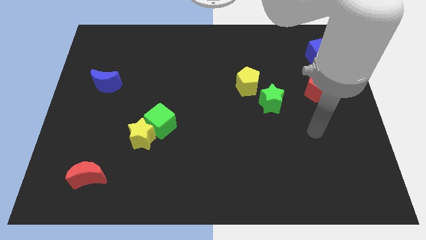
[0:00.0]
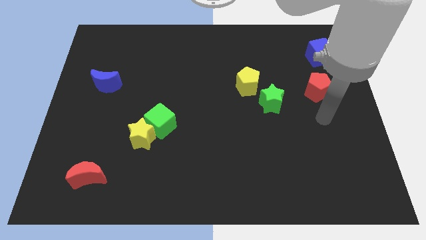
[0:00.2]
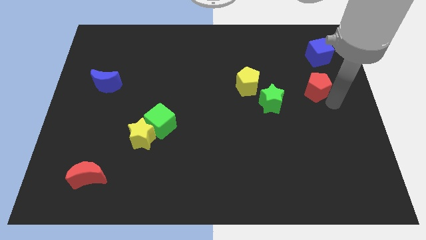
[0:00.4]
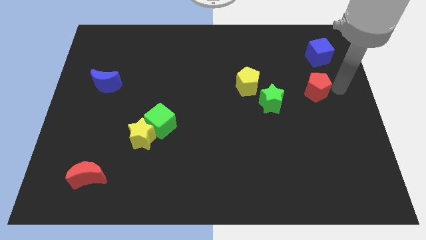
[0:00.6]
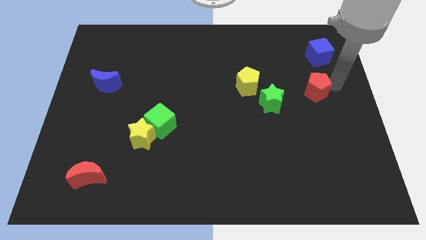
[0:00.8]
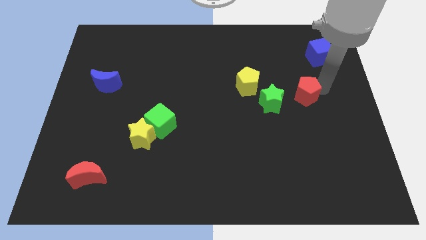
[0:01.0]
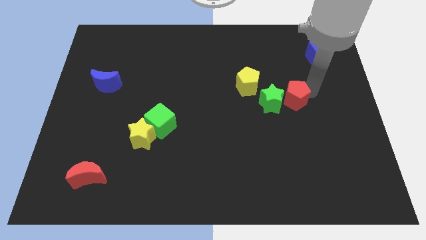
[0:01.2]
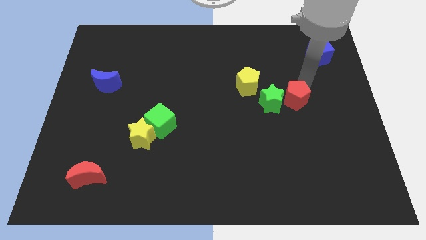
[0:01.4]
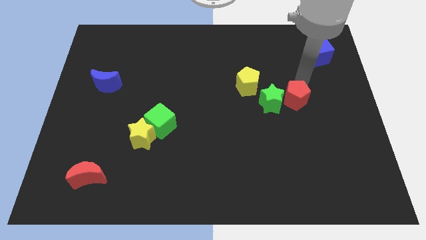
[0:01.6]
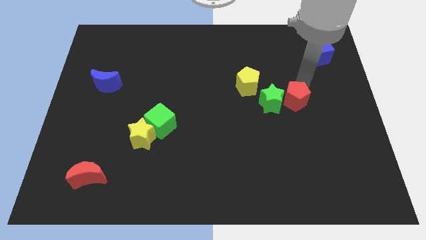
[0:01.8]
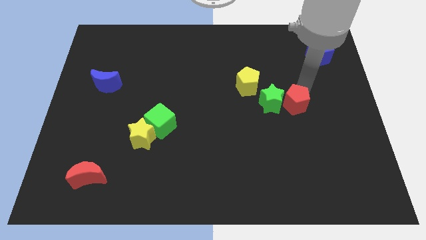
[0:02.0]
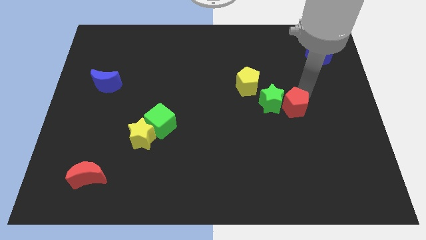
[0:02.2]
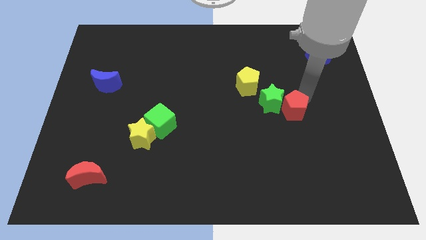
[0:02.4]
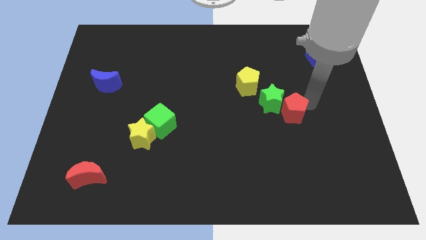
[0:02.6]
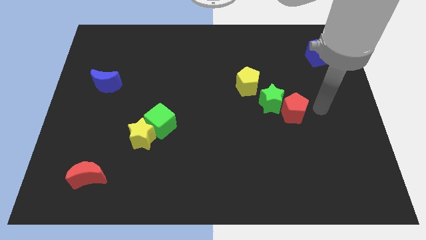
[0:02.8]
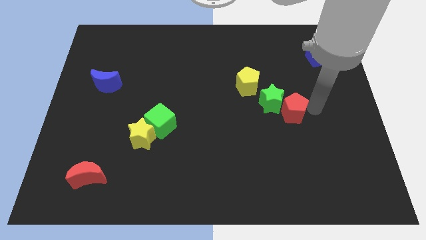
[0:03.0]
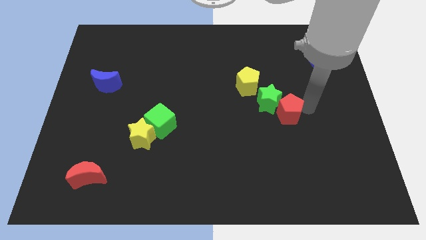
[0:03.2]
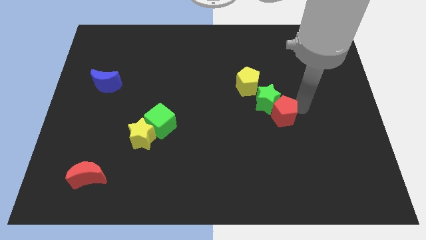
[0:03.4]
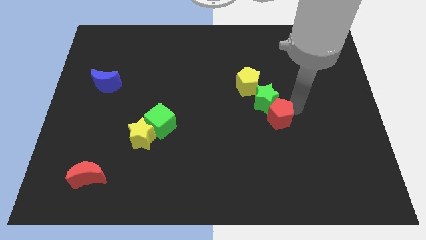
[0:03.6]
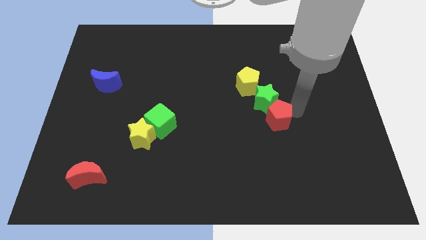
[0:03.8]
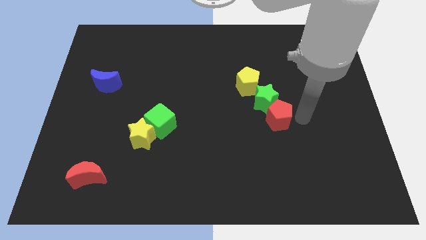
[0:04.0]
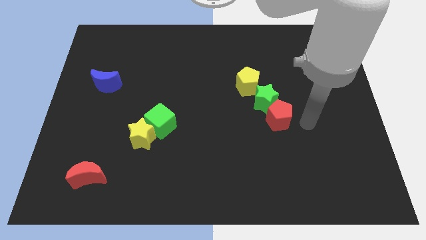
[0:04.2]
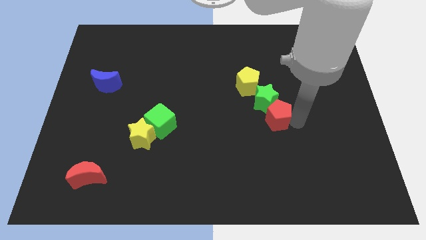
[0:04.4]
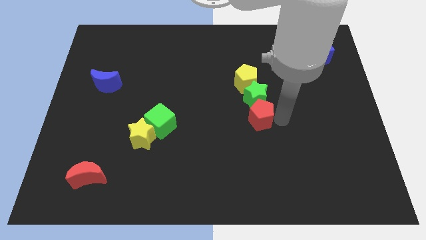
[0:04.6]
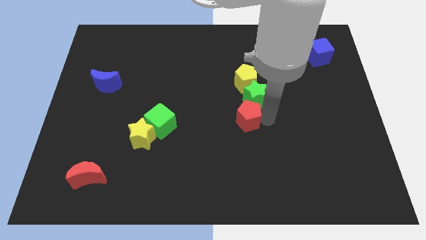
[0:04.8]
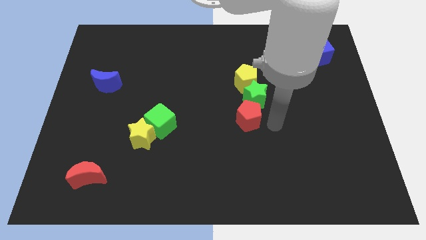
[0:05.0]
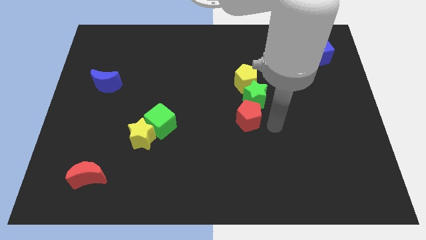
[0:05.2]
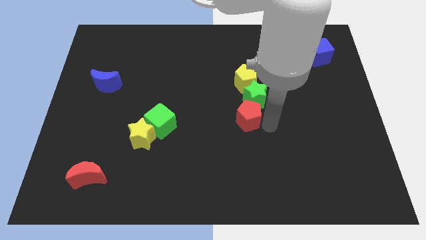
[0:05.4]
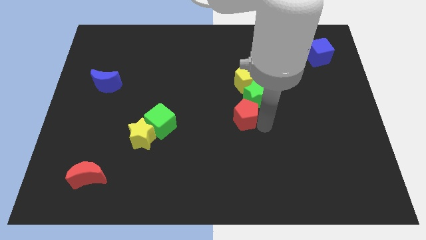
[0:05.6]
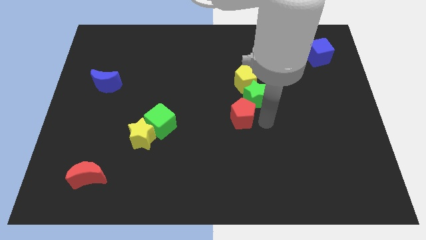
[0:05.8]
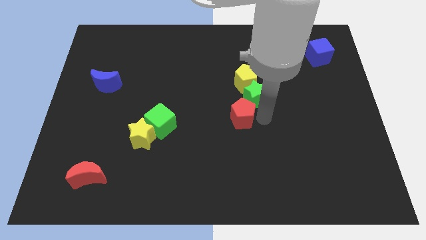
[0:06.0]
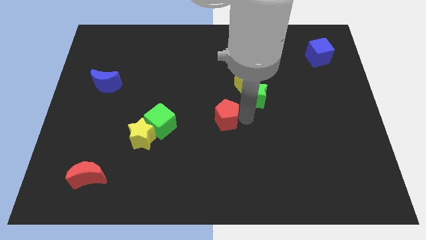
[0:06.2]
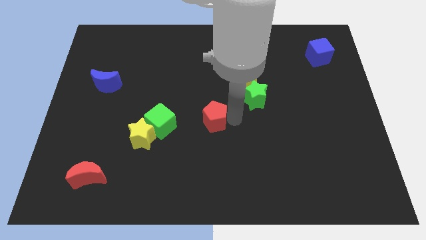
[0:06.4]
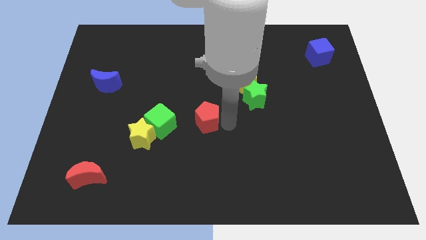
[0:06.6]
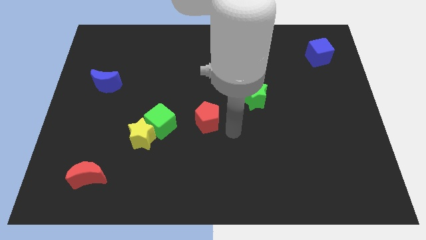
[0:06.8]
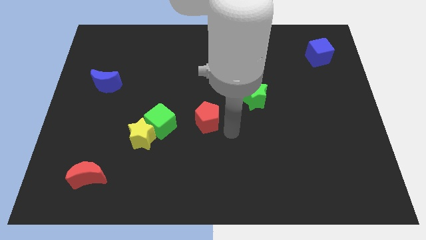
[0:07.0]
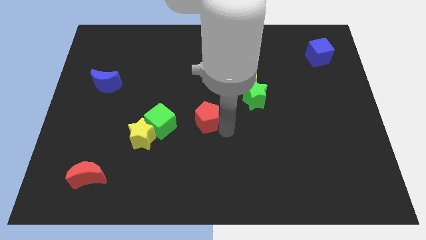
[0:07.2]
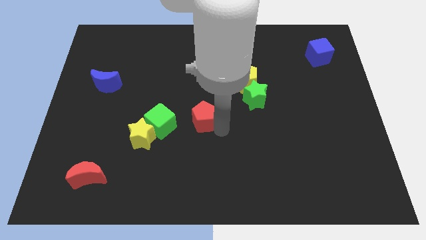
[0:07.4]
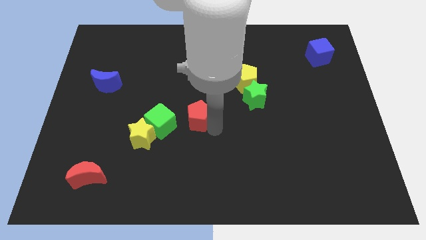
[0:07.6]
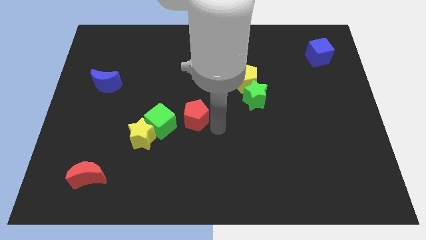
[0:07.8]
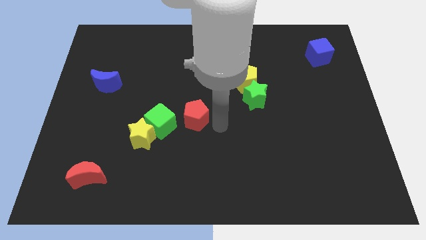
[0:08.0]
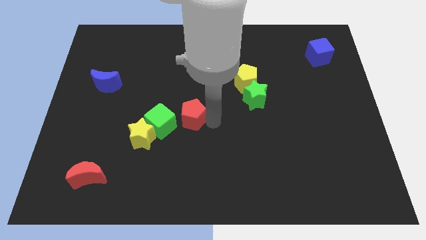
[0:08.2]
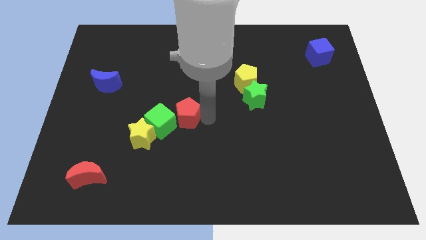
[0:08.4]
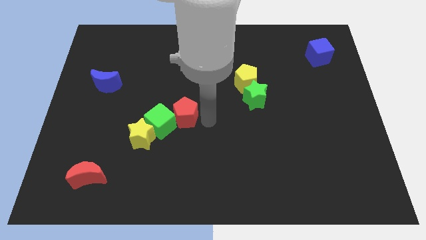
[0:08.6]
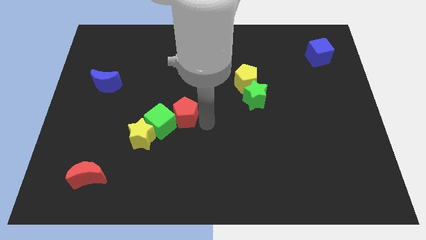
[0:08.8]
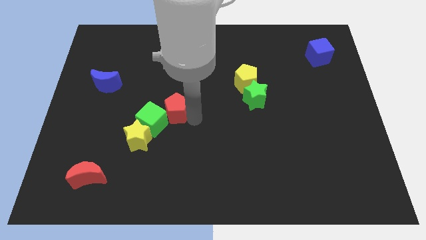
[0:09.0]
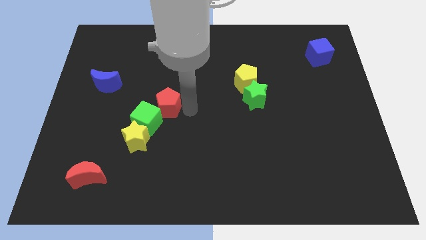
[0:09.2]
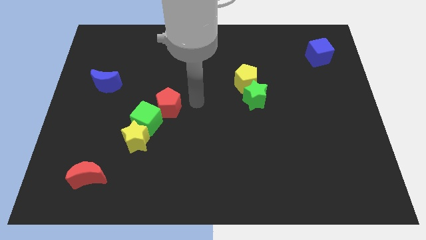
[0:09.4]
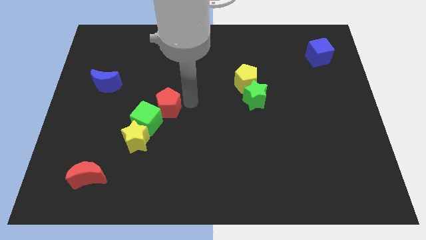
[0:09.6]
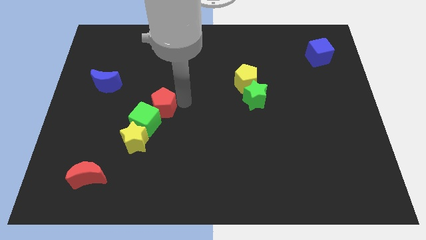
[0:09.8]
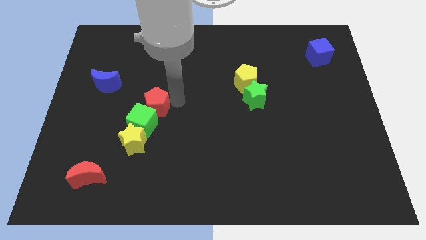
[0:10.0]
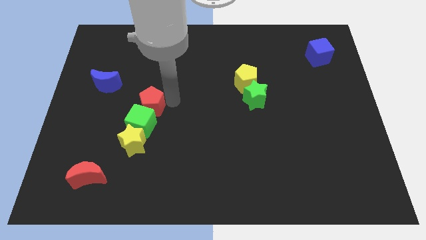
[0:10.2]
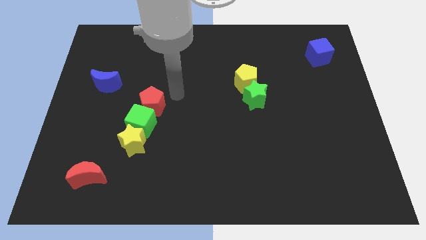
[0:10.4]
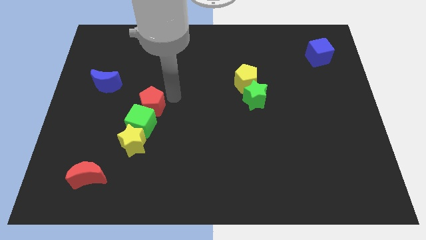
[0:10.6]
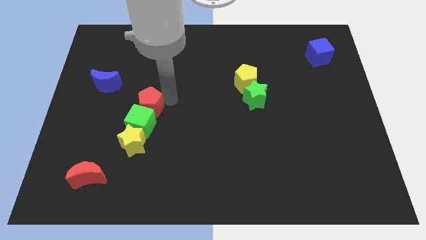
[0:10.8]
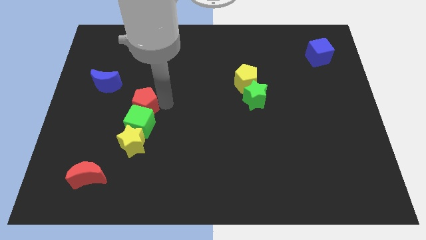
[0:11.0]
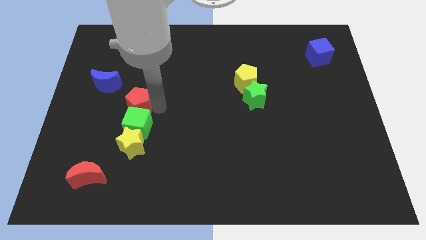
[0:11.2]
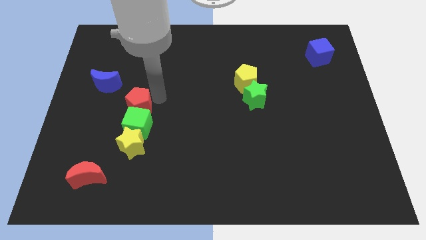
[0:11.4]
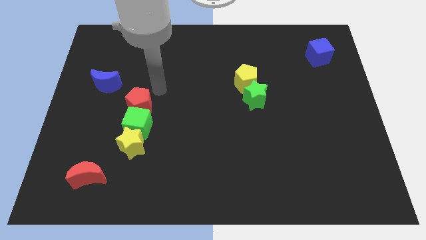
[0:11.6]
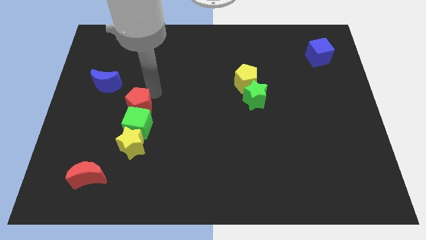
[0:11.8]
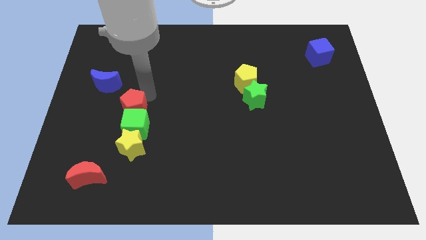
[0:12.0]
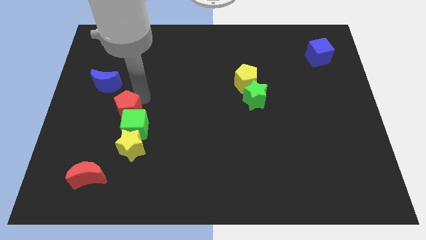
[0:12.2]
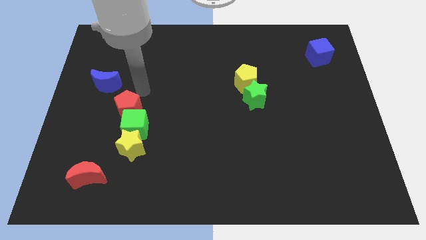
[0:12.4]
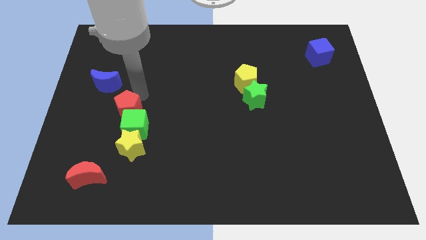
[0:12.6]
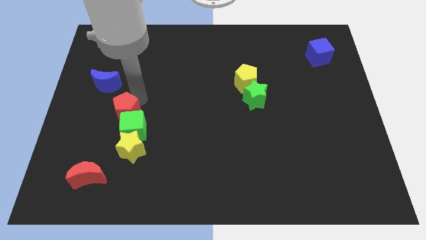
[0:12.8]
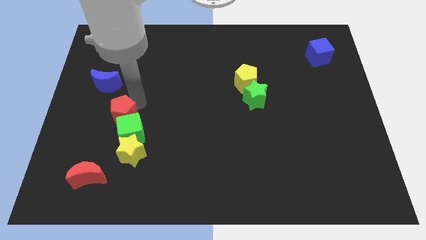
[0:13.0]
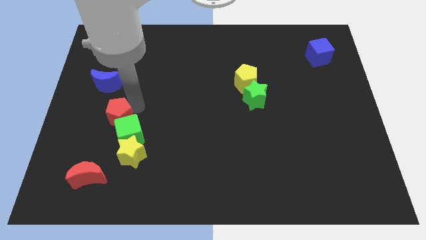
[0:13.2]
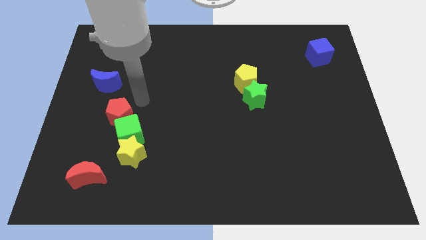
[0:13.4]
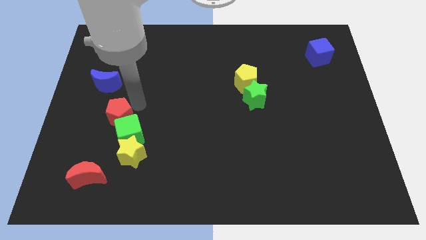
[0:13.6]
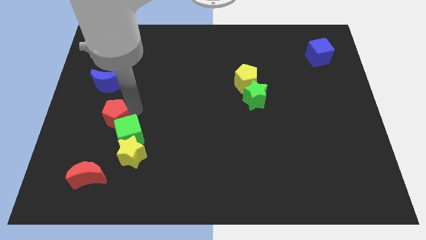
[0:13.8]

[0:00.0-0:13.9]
slide the red pentagon above the red moon

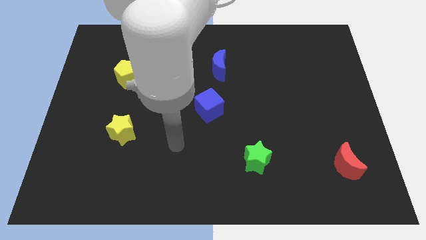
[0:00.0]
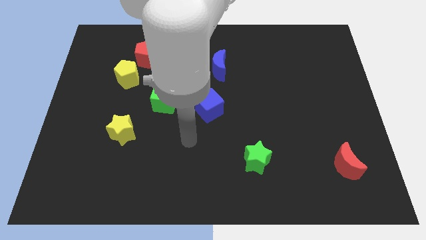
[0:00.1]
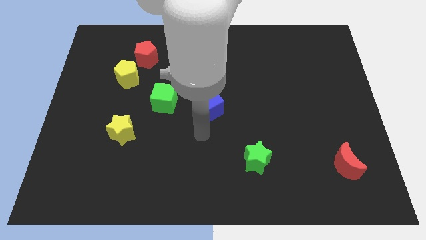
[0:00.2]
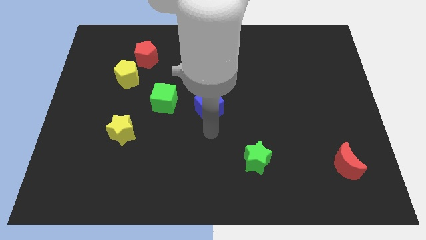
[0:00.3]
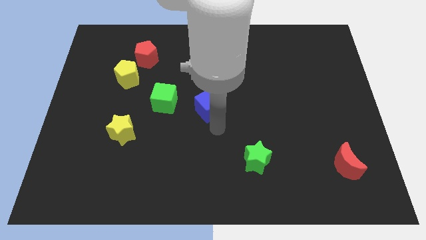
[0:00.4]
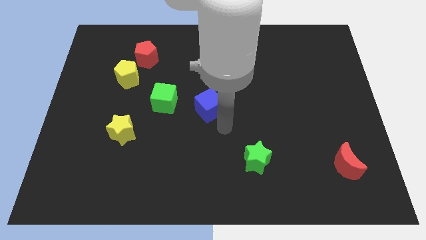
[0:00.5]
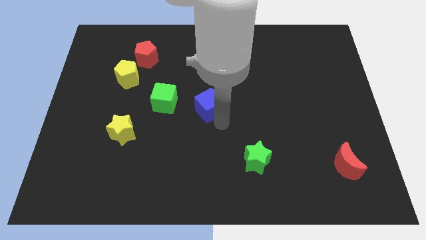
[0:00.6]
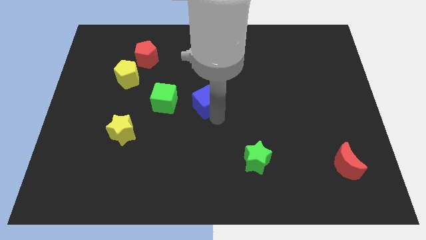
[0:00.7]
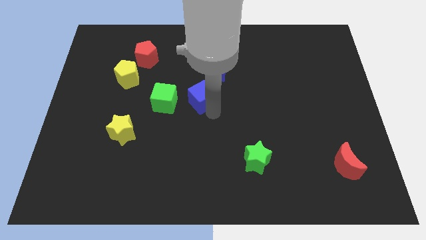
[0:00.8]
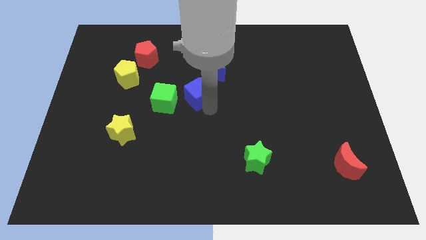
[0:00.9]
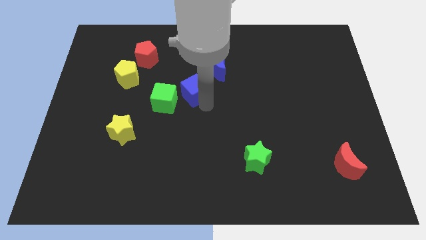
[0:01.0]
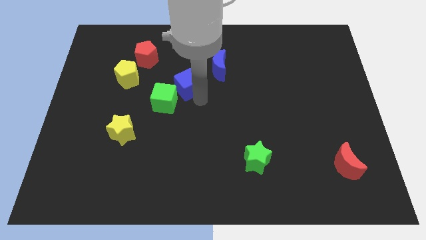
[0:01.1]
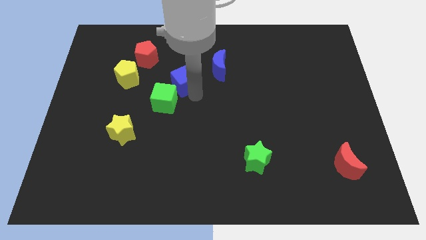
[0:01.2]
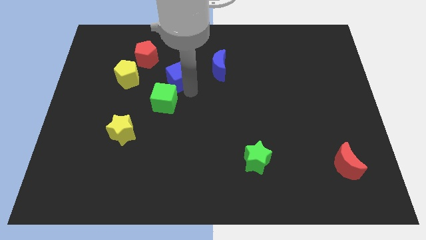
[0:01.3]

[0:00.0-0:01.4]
put the blue cube to the left side of the blue moon
